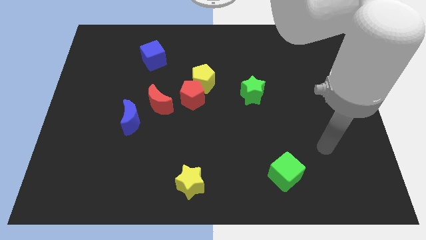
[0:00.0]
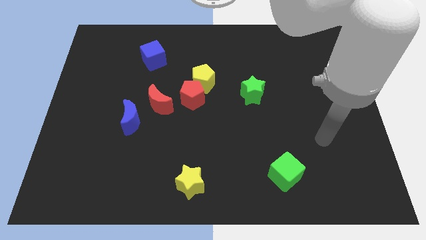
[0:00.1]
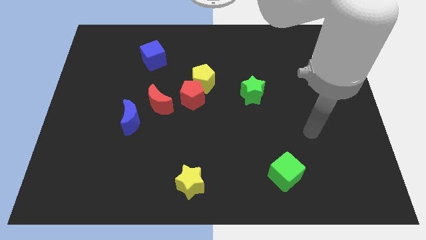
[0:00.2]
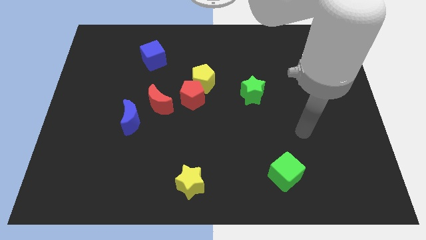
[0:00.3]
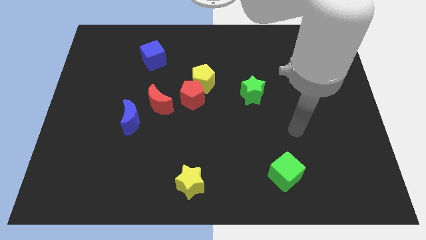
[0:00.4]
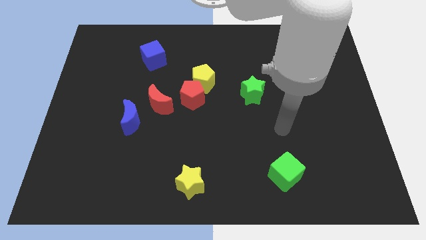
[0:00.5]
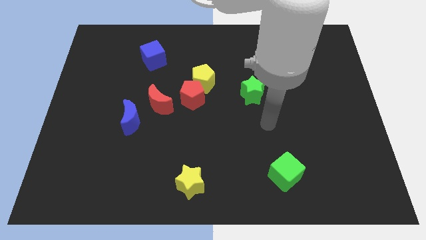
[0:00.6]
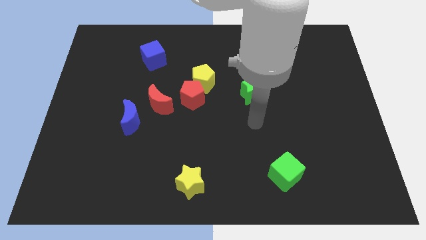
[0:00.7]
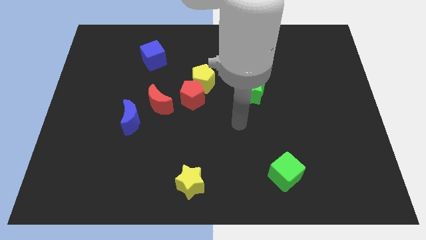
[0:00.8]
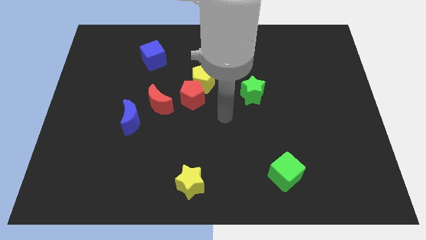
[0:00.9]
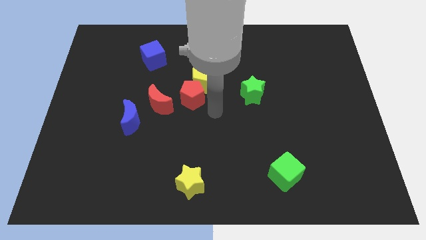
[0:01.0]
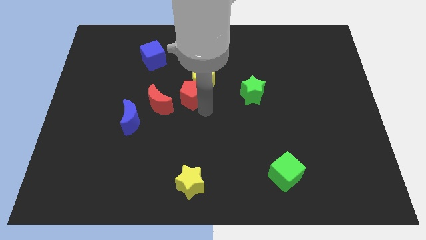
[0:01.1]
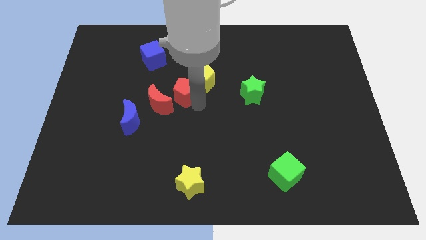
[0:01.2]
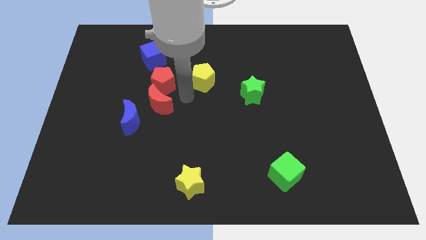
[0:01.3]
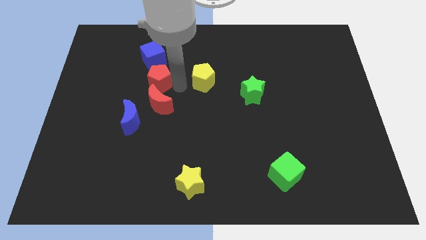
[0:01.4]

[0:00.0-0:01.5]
move the yellow pentagon away from the red pentagon

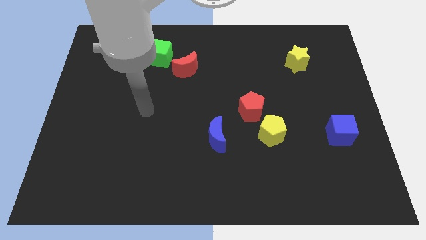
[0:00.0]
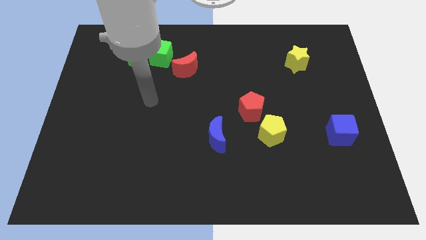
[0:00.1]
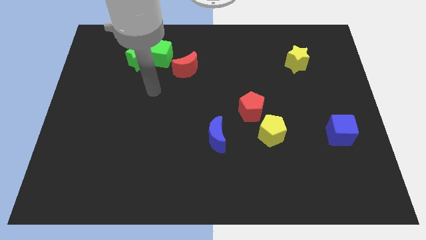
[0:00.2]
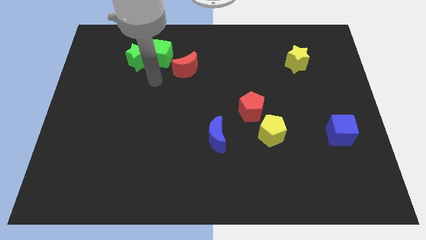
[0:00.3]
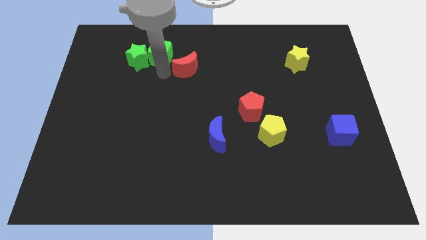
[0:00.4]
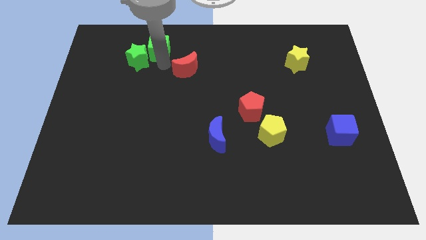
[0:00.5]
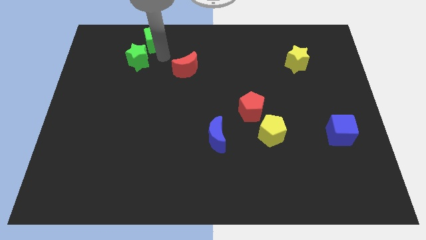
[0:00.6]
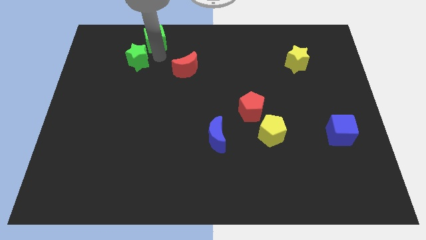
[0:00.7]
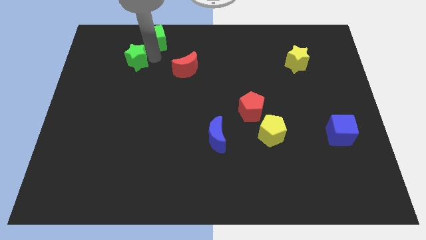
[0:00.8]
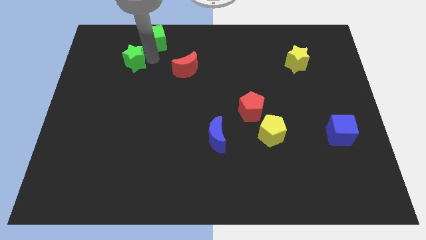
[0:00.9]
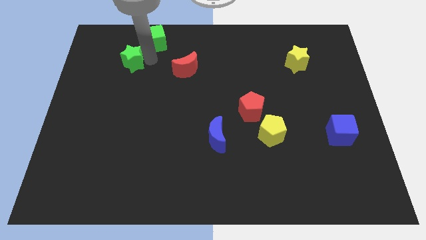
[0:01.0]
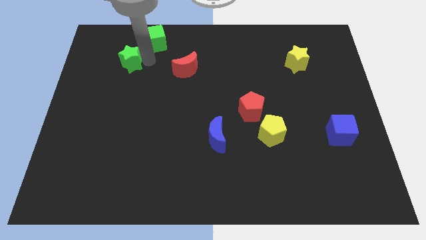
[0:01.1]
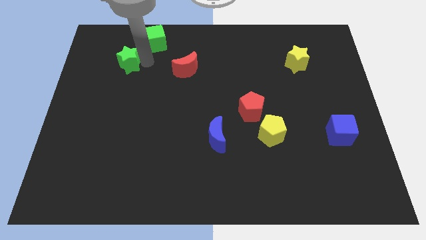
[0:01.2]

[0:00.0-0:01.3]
pull the green star apart from the green cube

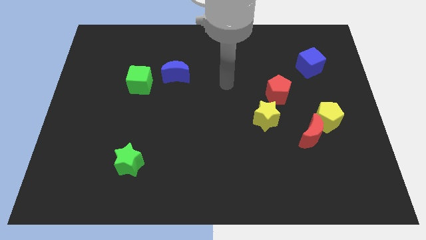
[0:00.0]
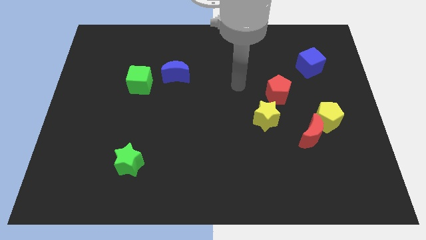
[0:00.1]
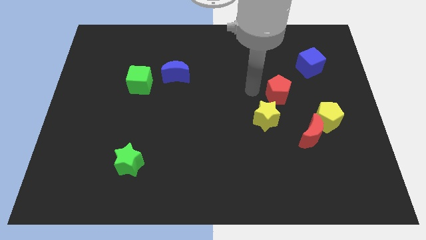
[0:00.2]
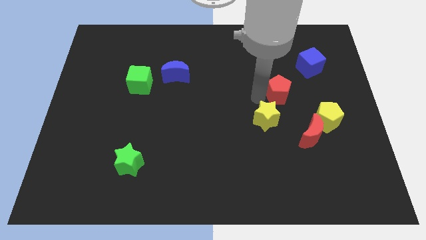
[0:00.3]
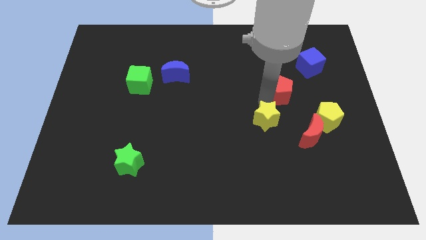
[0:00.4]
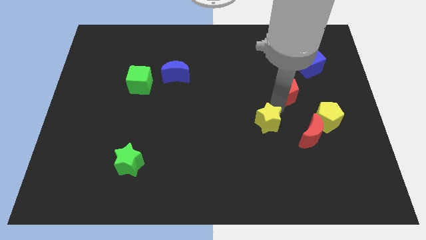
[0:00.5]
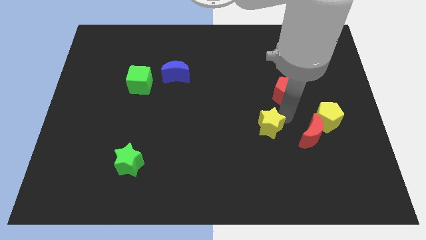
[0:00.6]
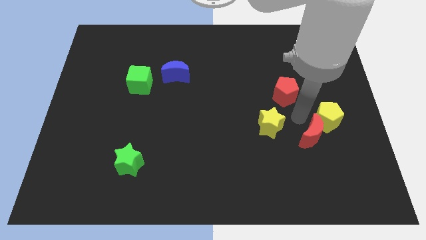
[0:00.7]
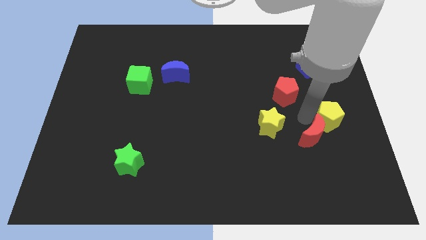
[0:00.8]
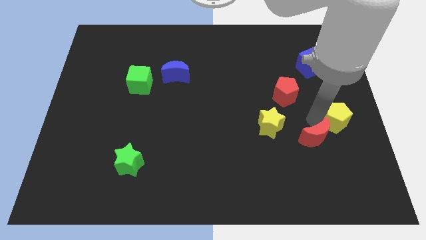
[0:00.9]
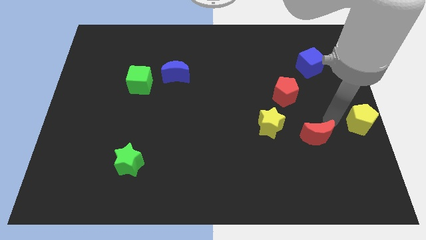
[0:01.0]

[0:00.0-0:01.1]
separate the red moon from the yellow pentagon

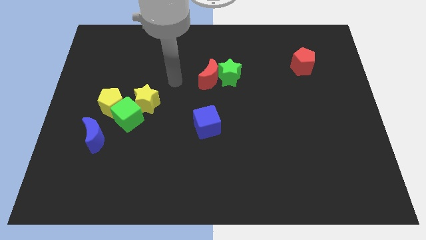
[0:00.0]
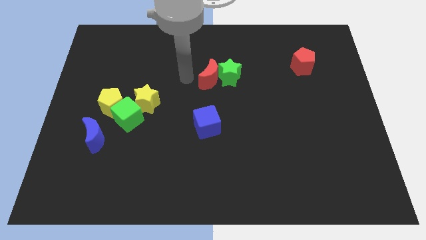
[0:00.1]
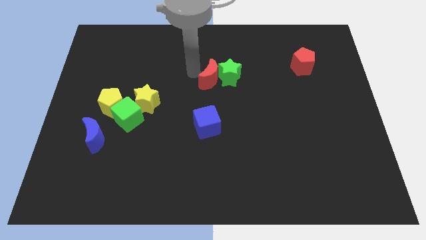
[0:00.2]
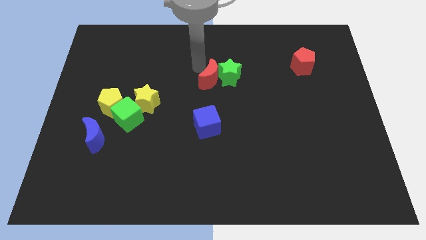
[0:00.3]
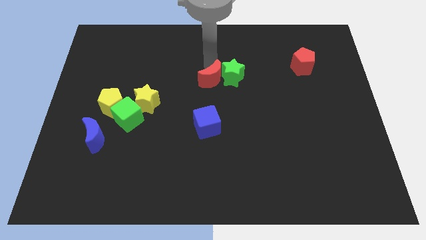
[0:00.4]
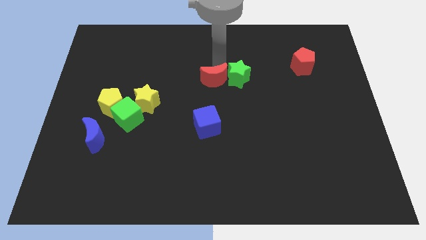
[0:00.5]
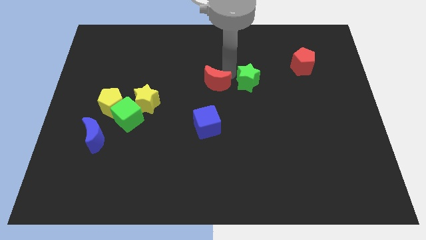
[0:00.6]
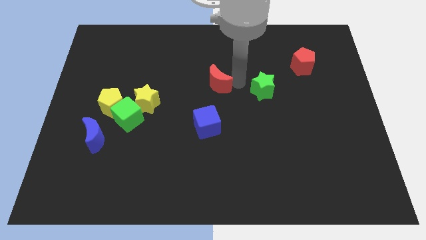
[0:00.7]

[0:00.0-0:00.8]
pull the red moon apart from the green star

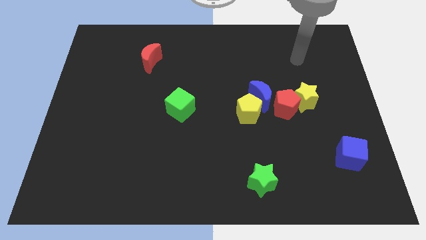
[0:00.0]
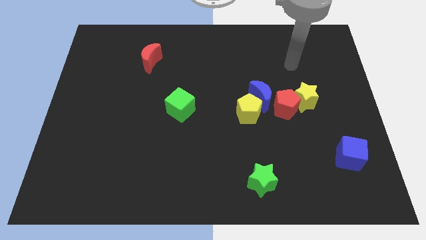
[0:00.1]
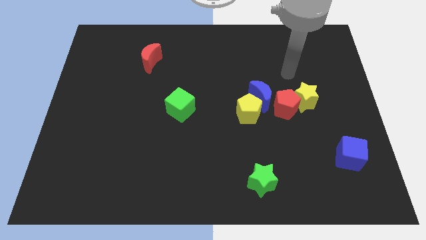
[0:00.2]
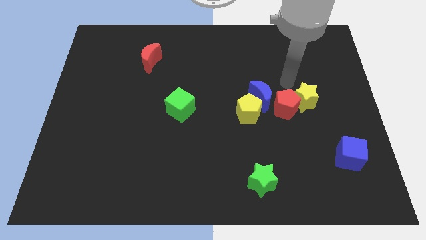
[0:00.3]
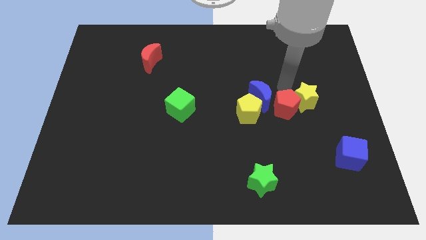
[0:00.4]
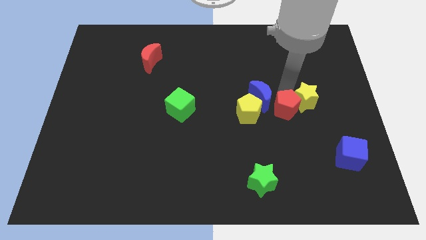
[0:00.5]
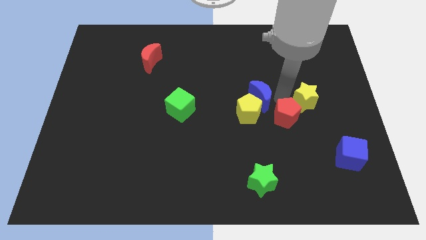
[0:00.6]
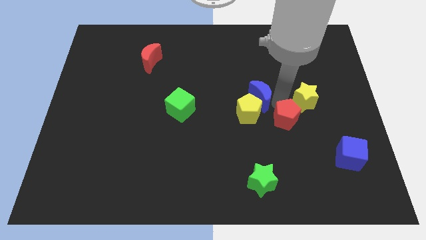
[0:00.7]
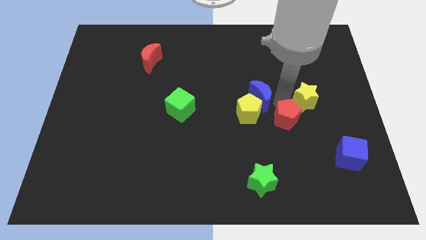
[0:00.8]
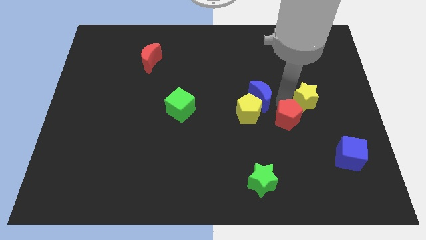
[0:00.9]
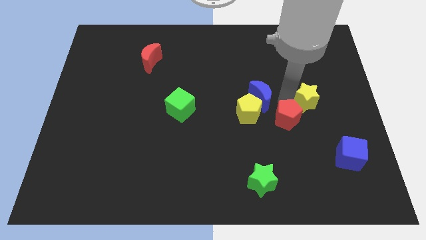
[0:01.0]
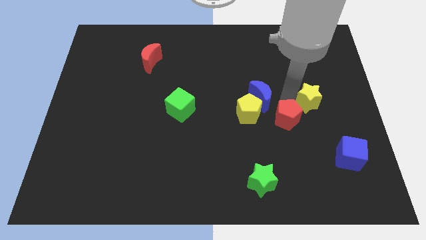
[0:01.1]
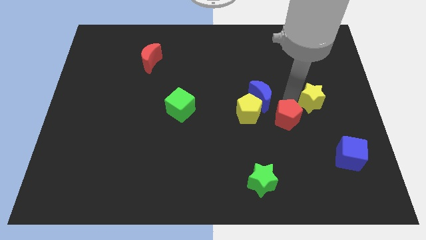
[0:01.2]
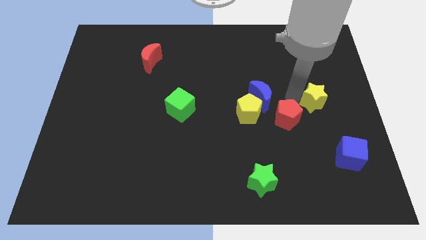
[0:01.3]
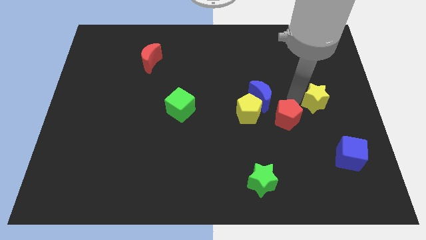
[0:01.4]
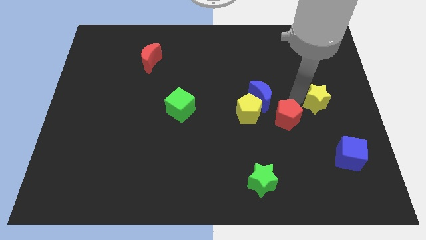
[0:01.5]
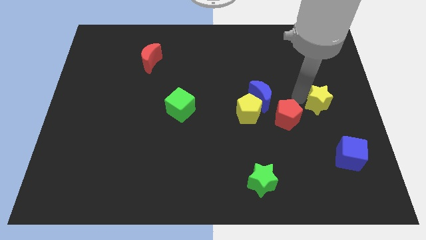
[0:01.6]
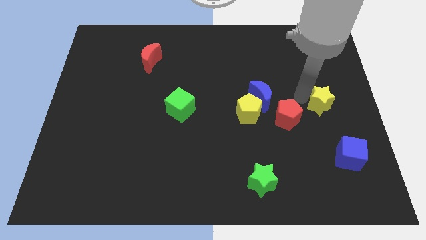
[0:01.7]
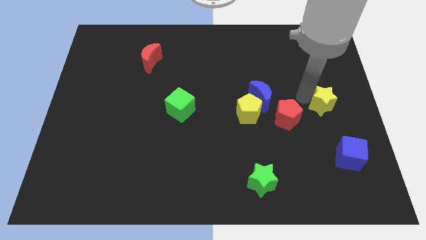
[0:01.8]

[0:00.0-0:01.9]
pull the yellow star apart from the red pentagon

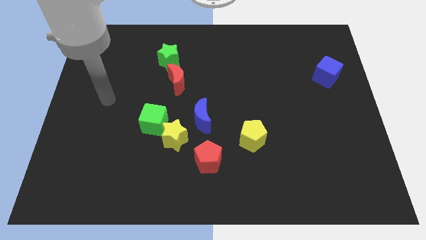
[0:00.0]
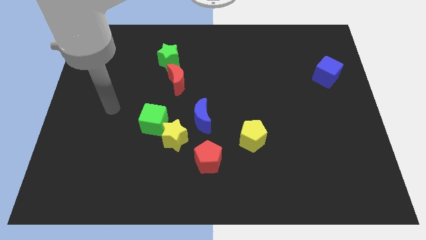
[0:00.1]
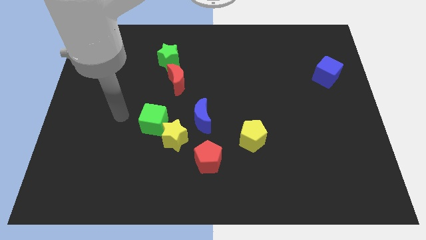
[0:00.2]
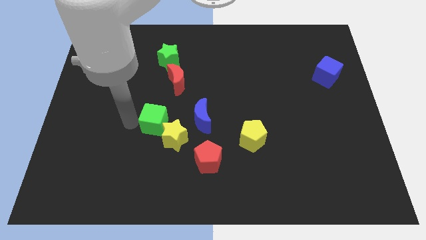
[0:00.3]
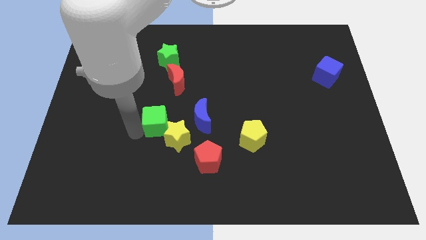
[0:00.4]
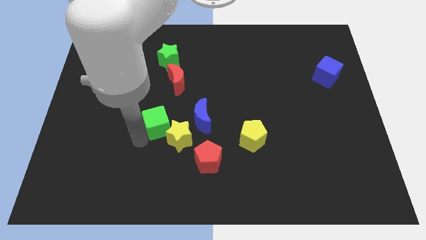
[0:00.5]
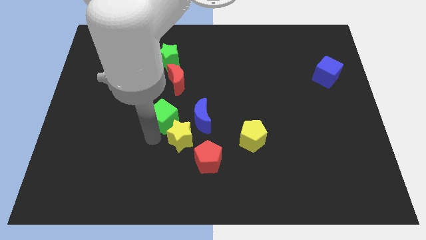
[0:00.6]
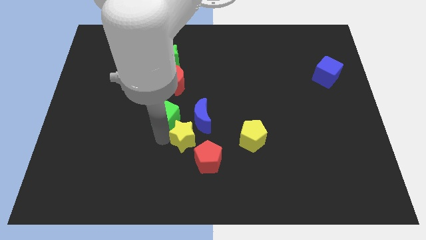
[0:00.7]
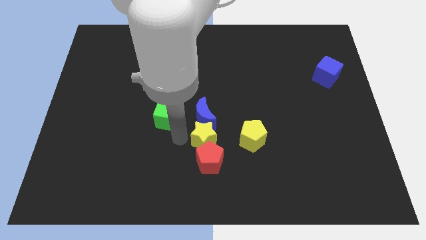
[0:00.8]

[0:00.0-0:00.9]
pull the green cube apart from the yellow star

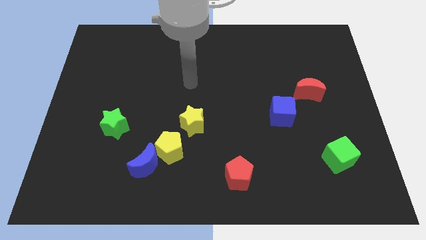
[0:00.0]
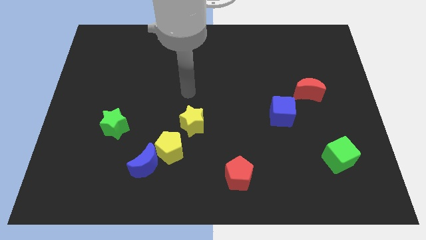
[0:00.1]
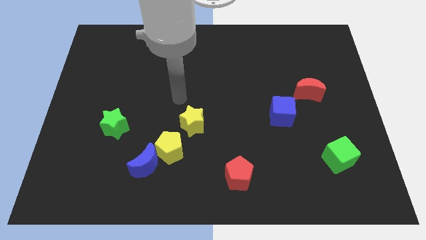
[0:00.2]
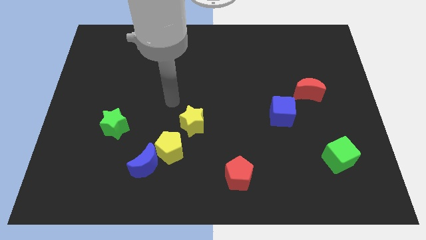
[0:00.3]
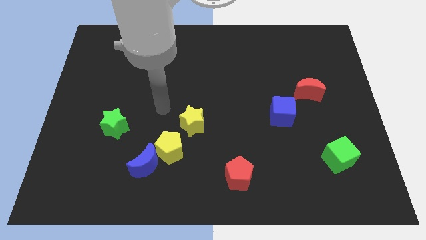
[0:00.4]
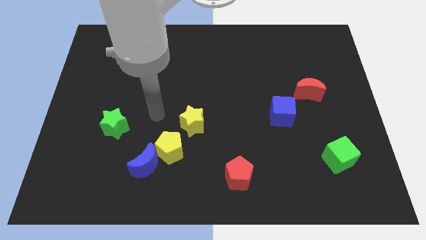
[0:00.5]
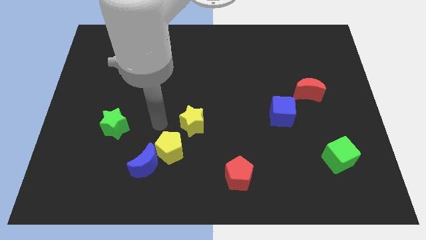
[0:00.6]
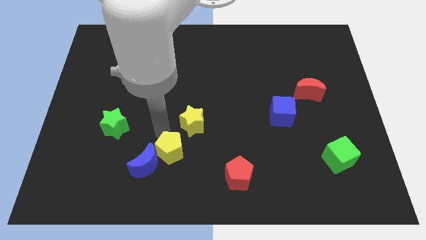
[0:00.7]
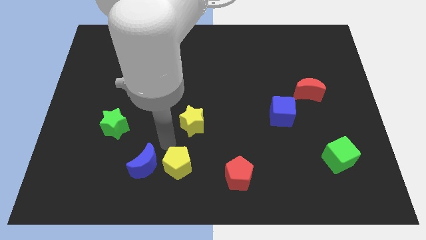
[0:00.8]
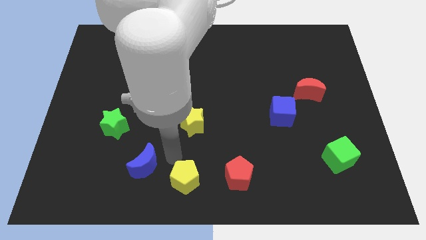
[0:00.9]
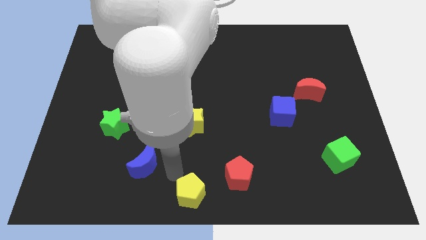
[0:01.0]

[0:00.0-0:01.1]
separate the blue moon from the yellow pentagon

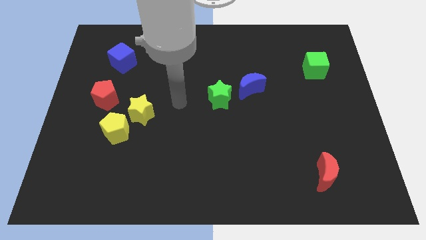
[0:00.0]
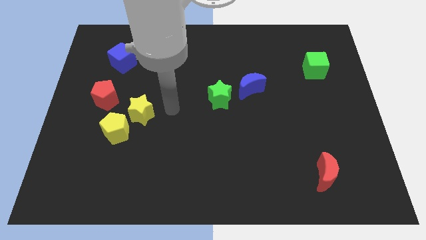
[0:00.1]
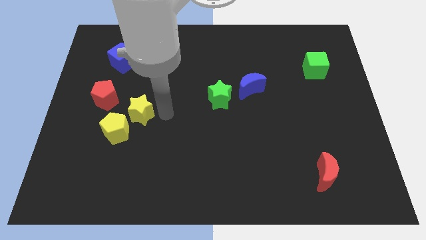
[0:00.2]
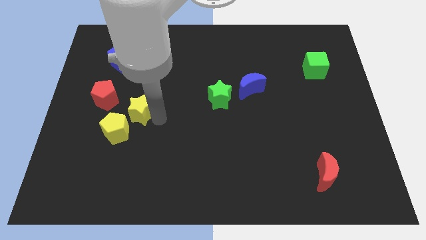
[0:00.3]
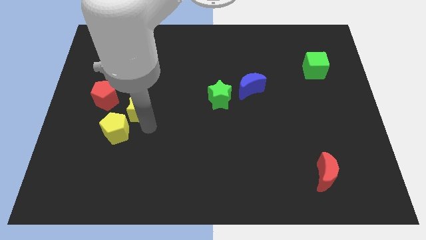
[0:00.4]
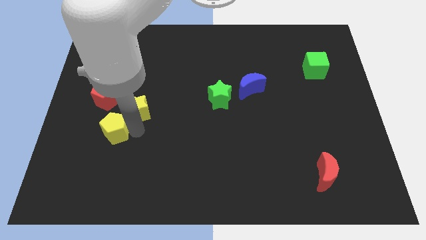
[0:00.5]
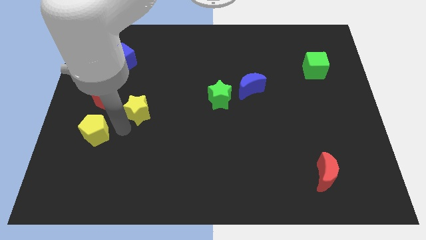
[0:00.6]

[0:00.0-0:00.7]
pull the yellow star apart from the yellow pentagon
